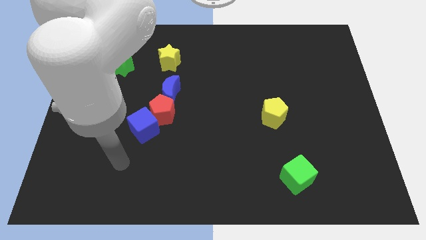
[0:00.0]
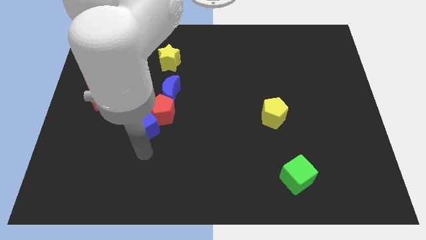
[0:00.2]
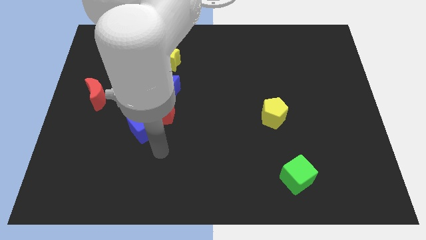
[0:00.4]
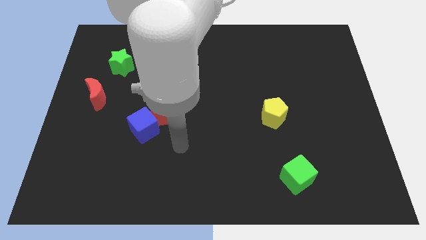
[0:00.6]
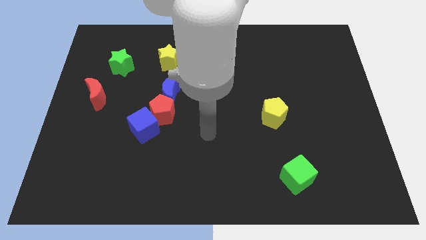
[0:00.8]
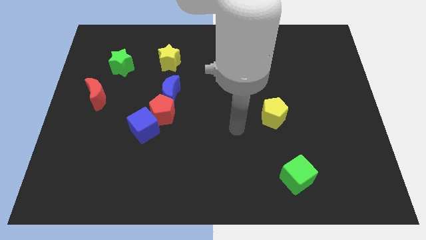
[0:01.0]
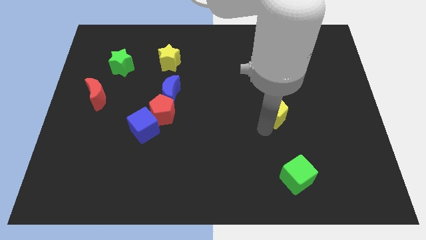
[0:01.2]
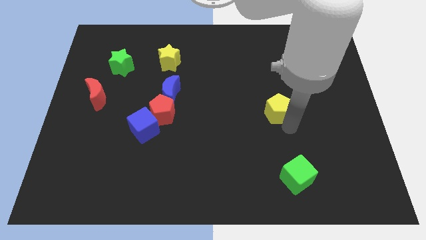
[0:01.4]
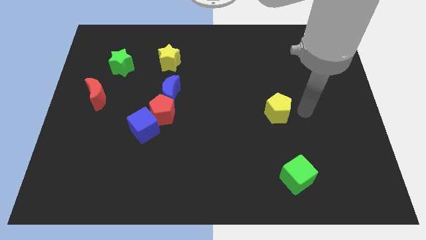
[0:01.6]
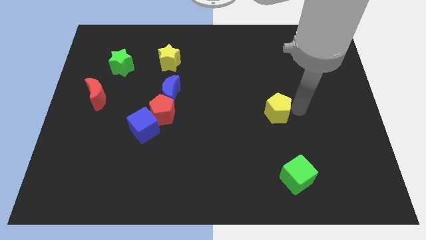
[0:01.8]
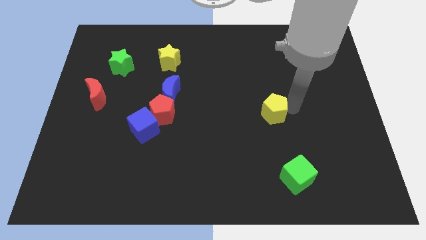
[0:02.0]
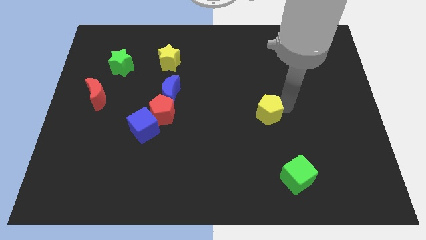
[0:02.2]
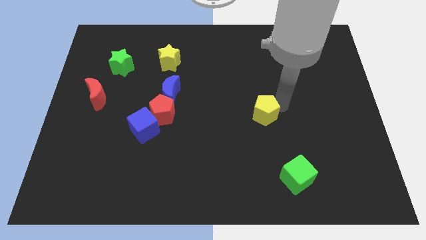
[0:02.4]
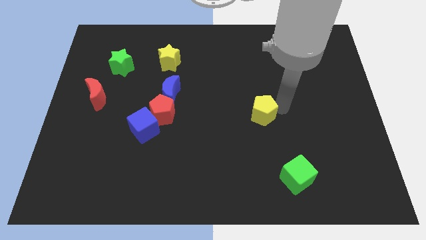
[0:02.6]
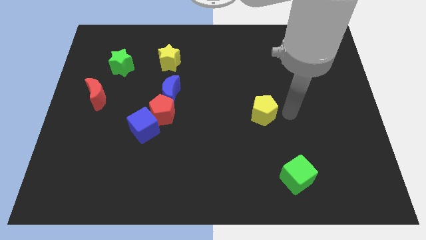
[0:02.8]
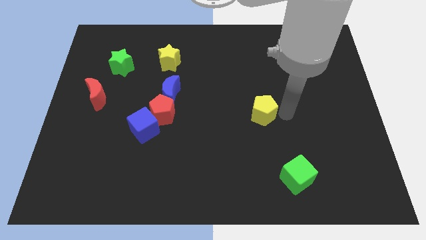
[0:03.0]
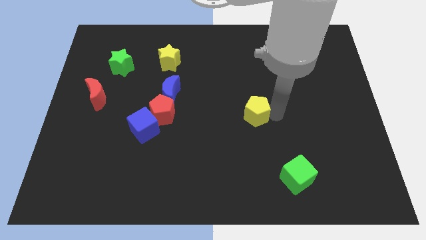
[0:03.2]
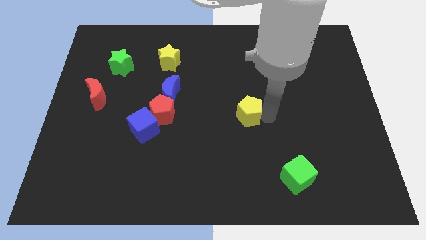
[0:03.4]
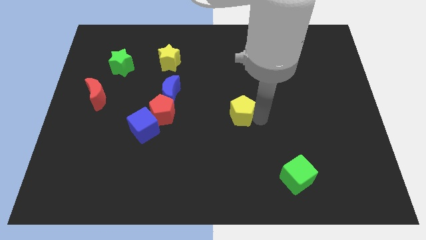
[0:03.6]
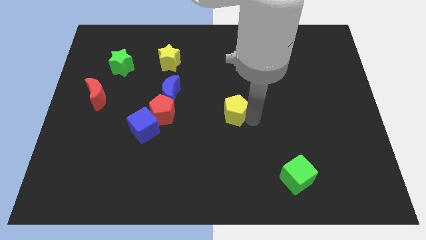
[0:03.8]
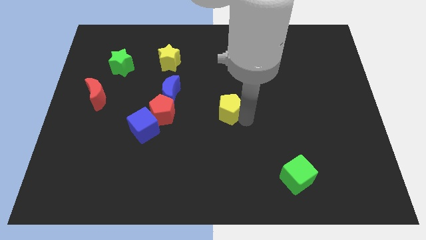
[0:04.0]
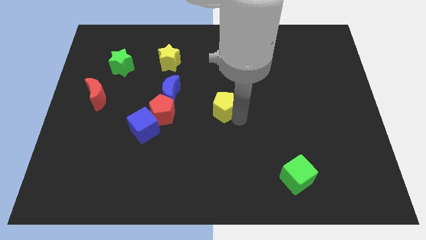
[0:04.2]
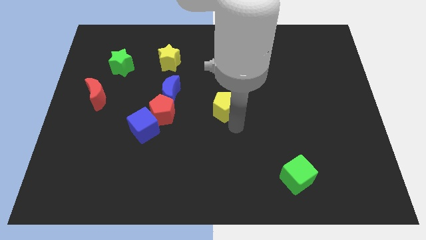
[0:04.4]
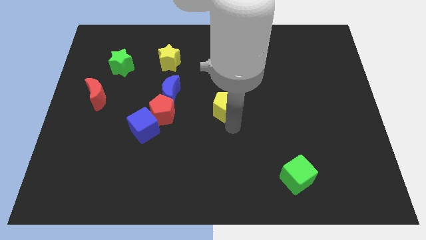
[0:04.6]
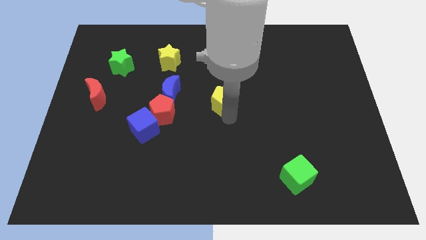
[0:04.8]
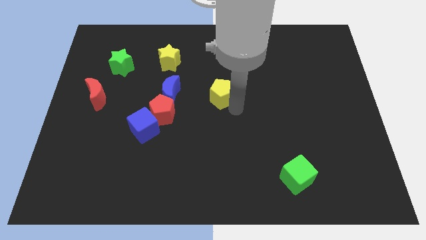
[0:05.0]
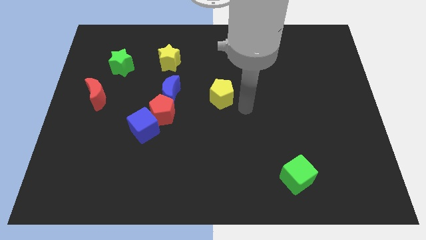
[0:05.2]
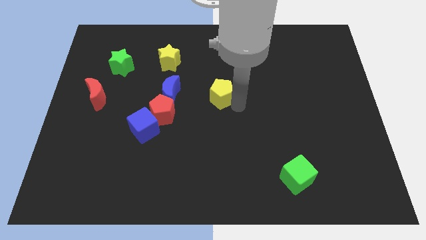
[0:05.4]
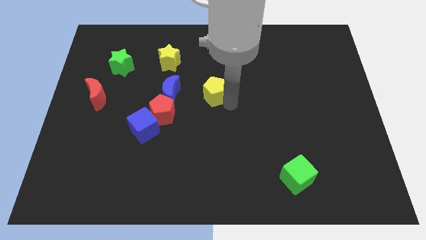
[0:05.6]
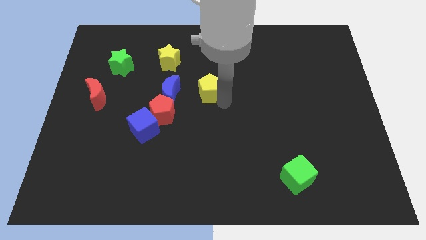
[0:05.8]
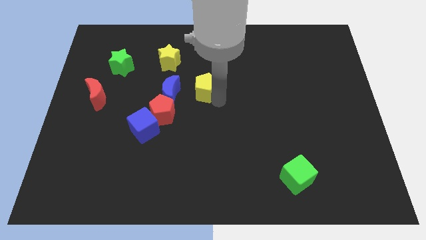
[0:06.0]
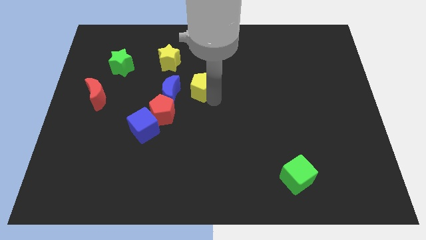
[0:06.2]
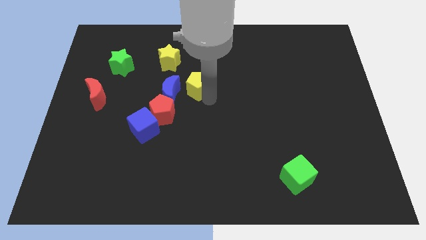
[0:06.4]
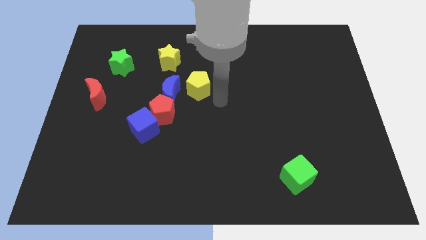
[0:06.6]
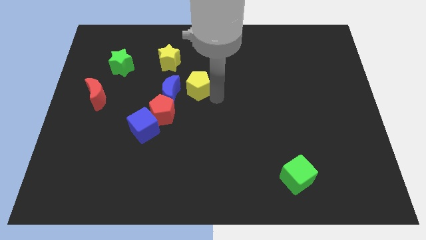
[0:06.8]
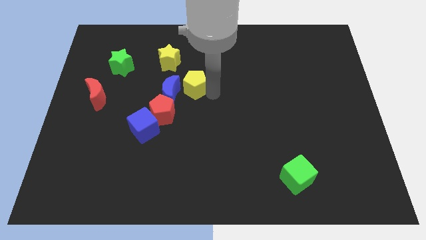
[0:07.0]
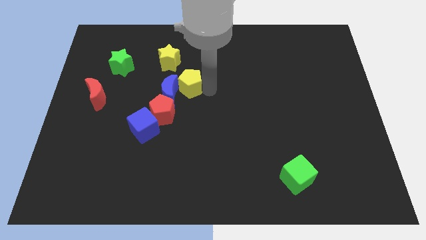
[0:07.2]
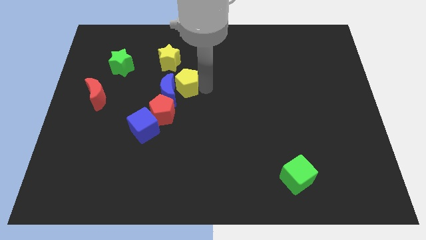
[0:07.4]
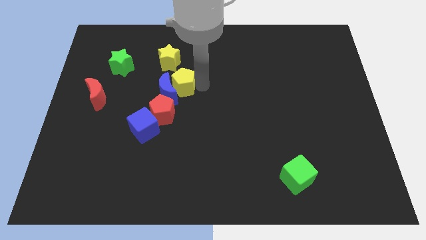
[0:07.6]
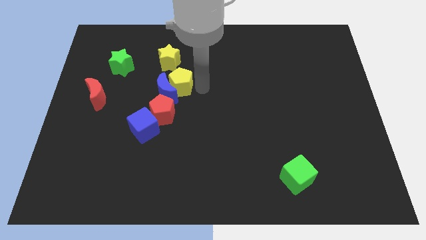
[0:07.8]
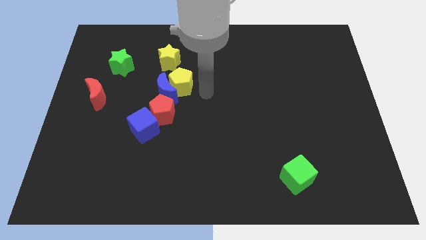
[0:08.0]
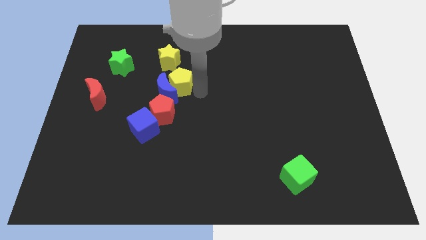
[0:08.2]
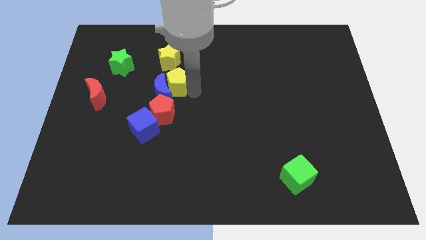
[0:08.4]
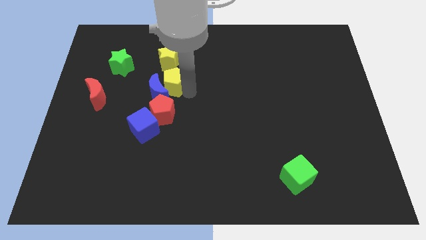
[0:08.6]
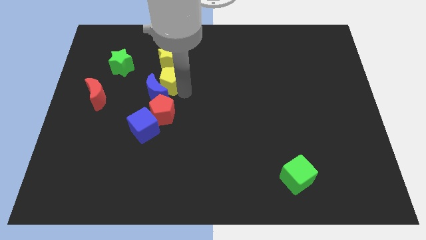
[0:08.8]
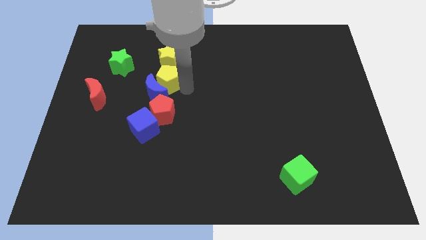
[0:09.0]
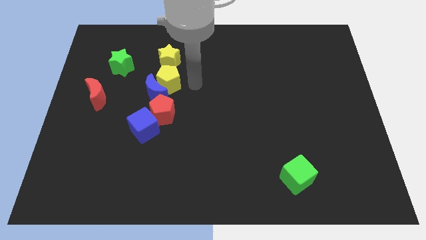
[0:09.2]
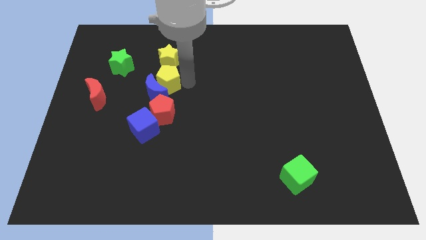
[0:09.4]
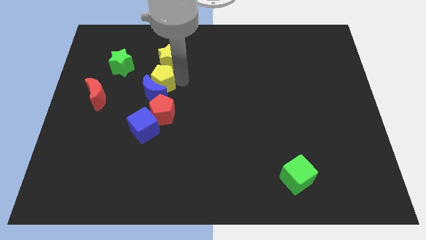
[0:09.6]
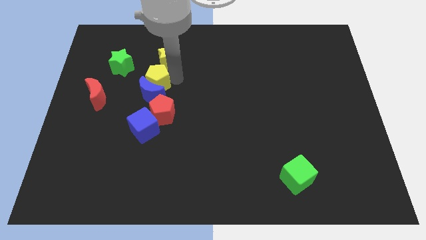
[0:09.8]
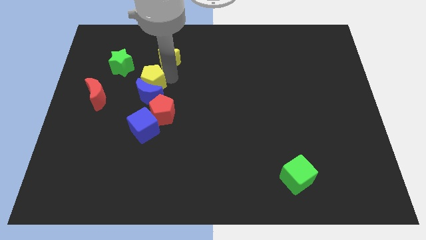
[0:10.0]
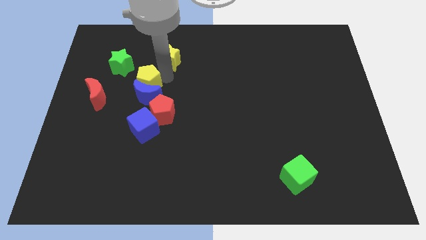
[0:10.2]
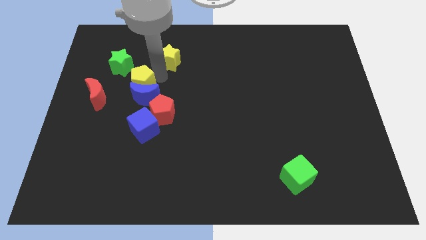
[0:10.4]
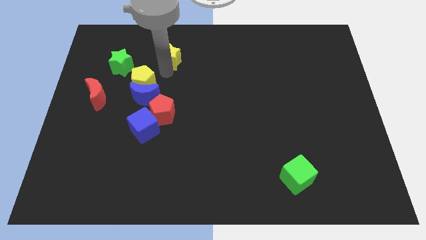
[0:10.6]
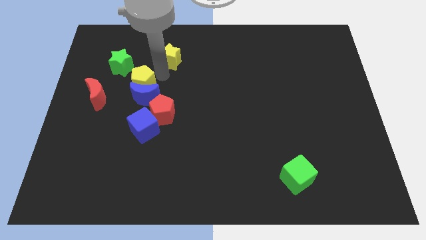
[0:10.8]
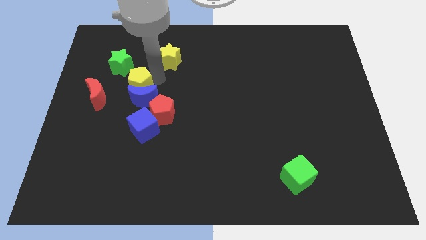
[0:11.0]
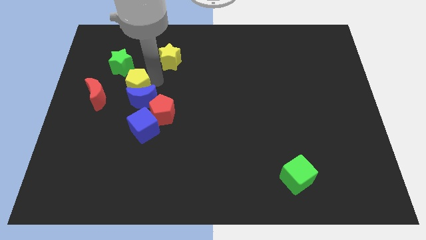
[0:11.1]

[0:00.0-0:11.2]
move the yellow pentagon below the green star

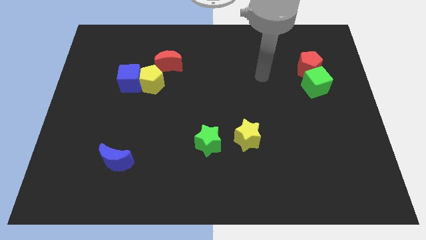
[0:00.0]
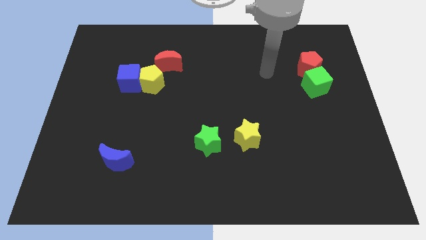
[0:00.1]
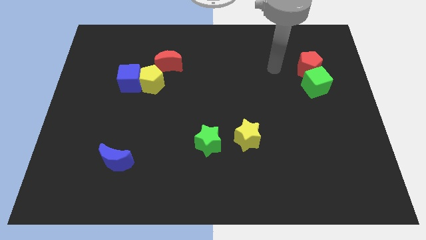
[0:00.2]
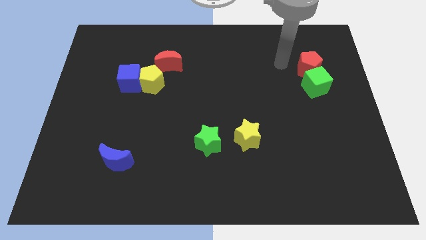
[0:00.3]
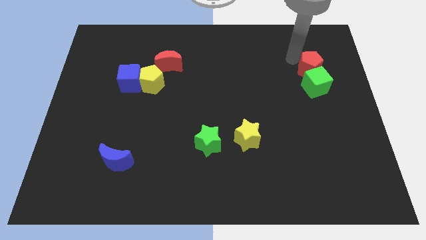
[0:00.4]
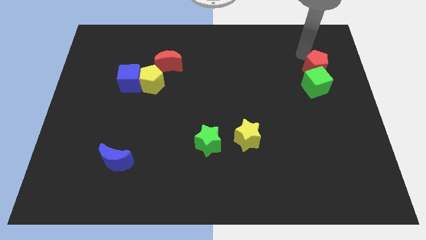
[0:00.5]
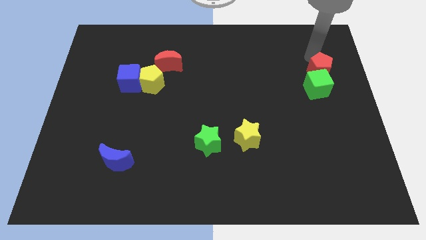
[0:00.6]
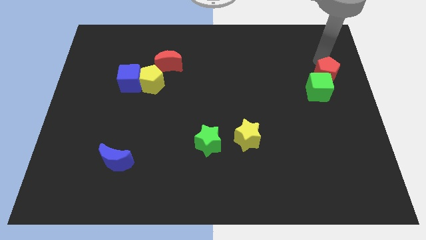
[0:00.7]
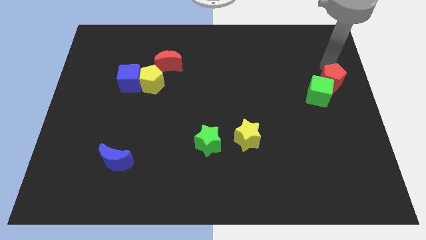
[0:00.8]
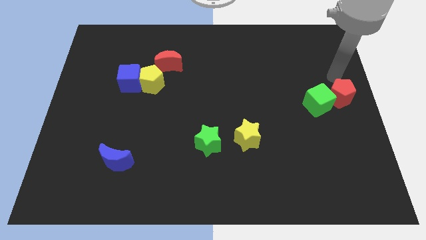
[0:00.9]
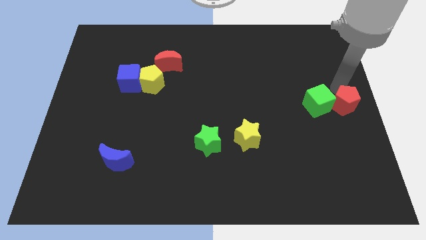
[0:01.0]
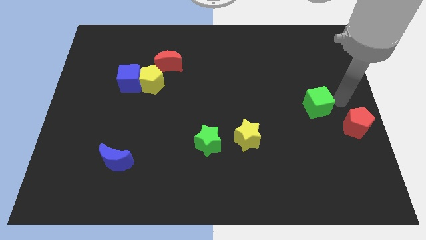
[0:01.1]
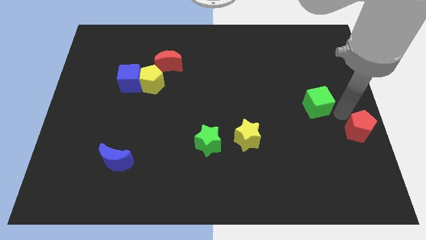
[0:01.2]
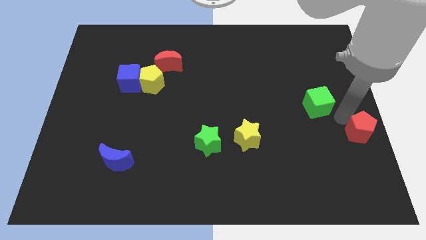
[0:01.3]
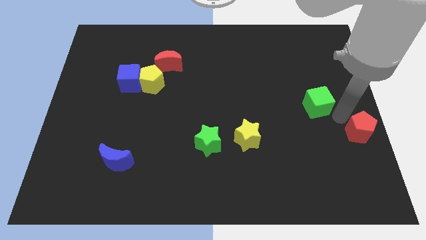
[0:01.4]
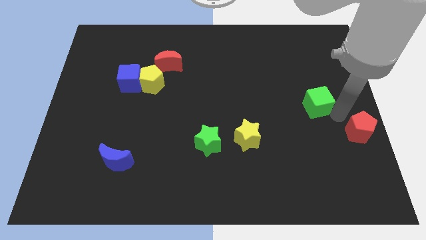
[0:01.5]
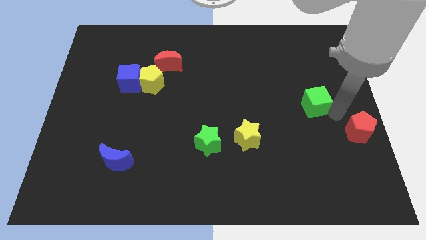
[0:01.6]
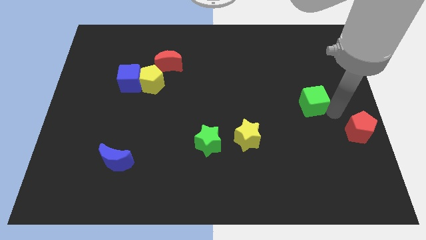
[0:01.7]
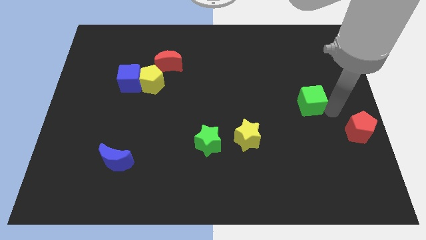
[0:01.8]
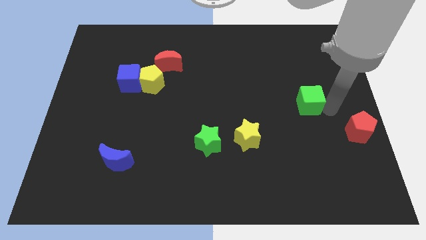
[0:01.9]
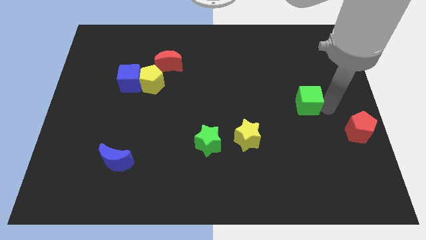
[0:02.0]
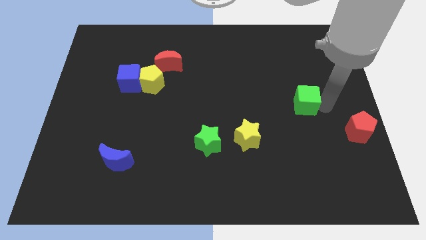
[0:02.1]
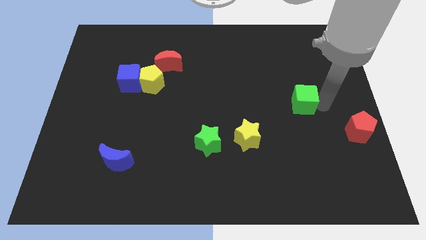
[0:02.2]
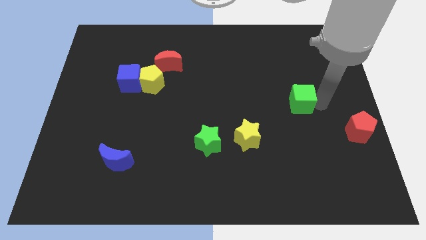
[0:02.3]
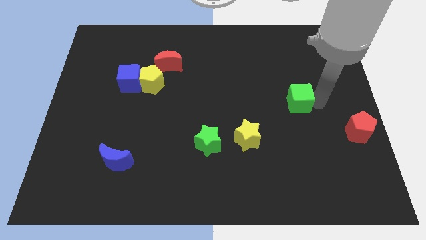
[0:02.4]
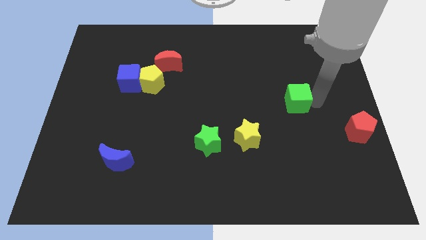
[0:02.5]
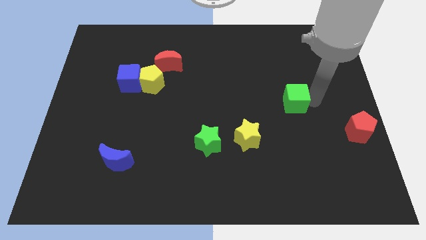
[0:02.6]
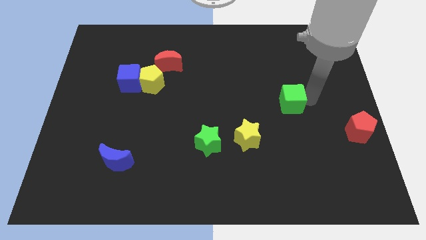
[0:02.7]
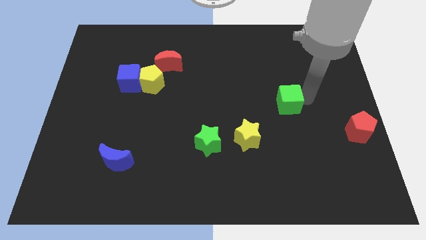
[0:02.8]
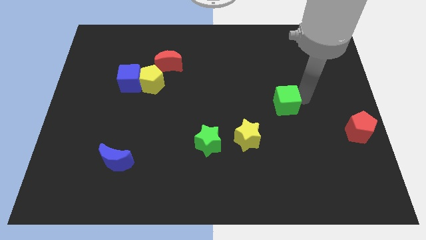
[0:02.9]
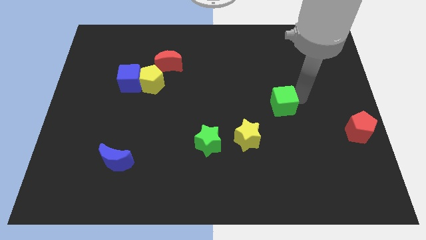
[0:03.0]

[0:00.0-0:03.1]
put the green cube diagonally up and to the right of the yellow star
